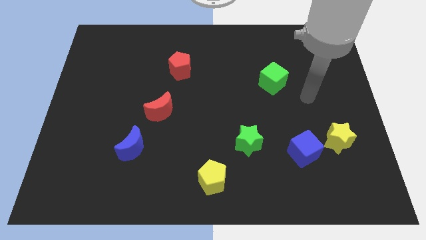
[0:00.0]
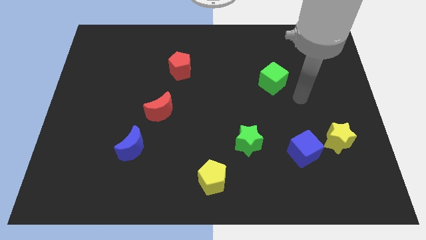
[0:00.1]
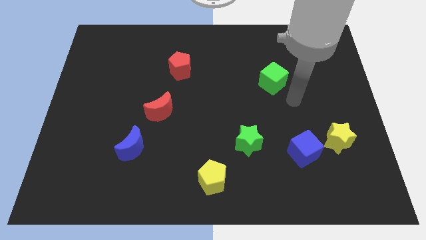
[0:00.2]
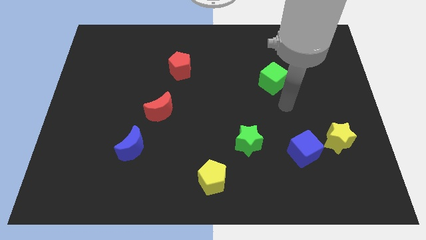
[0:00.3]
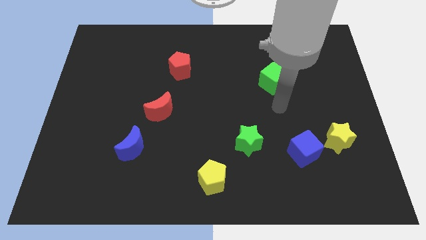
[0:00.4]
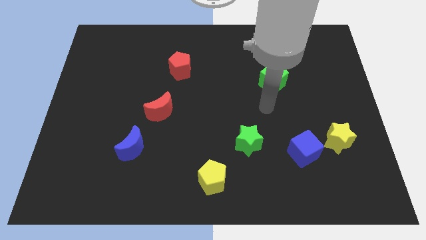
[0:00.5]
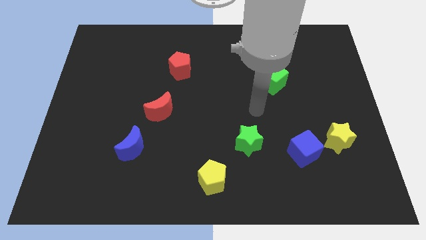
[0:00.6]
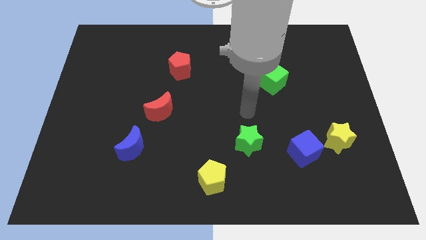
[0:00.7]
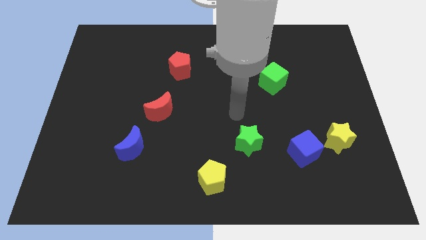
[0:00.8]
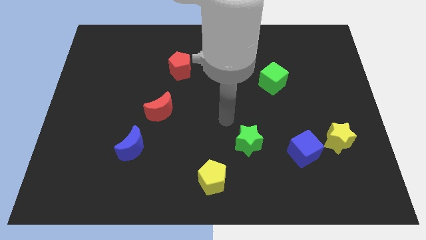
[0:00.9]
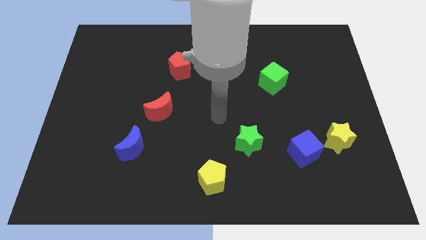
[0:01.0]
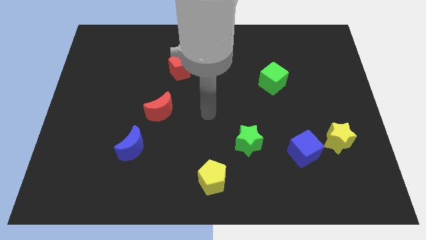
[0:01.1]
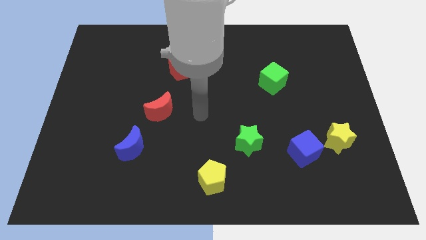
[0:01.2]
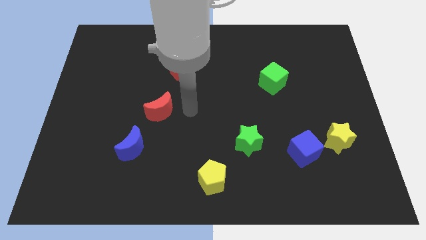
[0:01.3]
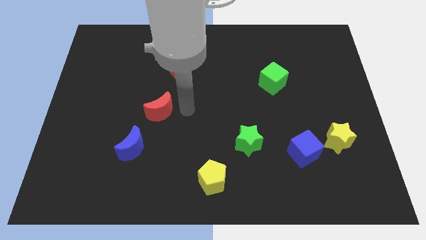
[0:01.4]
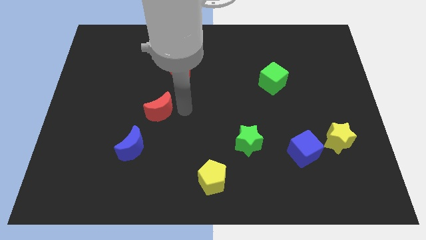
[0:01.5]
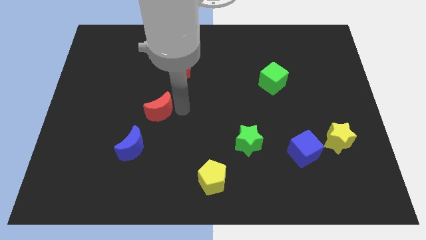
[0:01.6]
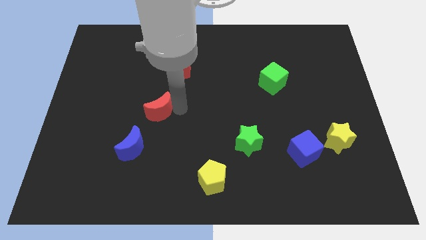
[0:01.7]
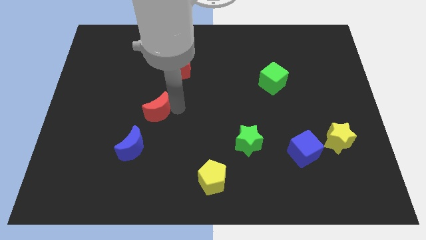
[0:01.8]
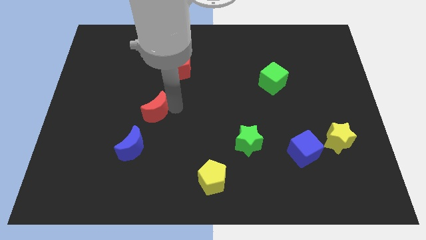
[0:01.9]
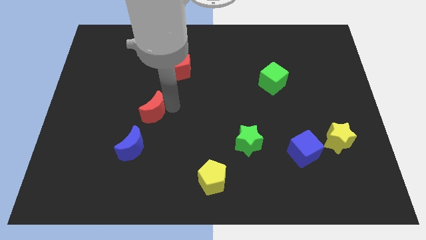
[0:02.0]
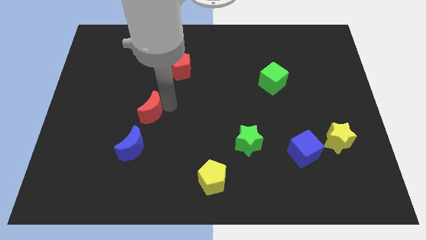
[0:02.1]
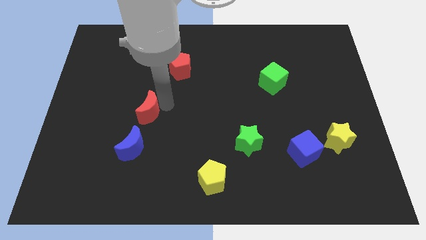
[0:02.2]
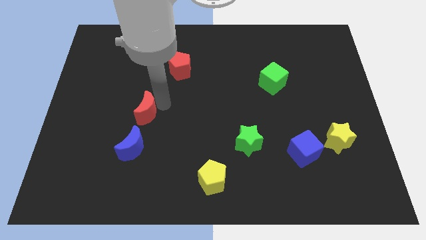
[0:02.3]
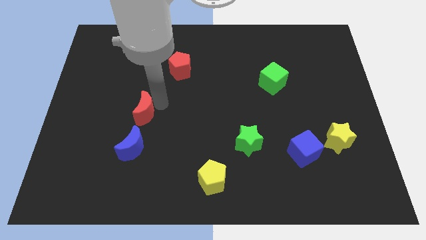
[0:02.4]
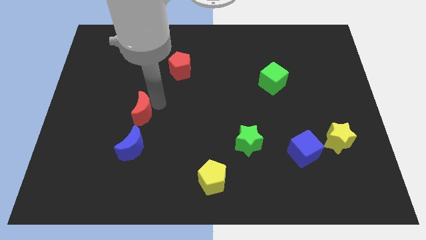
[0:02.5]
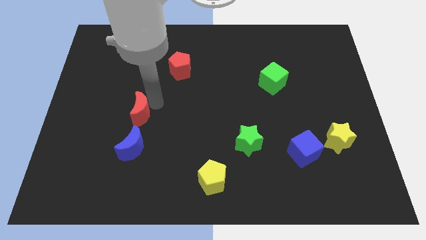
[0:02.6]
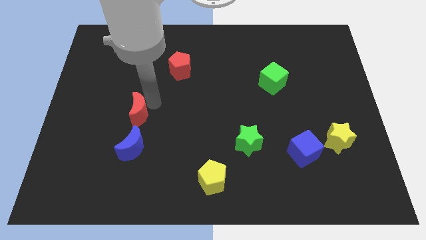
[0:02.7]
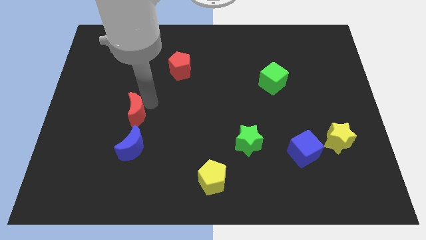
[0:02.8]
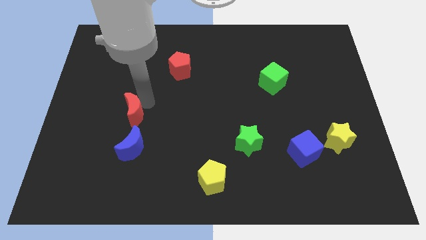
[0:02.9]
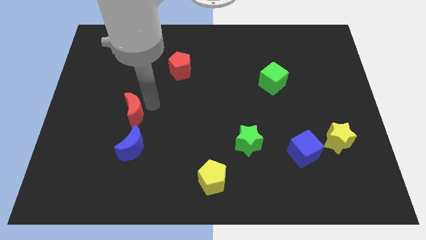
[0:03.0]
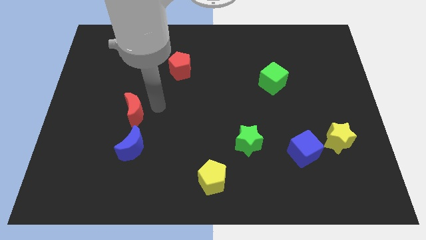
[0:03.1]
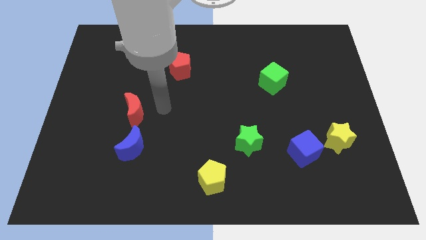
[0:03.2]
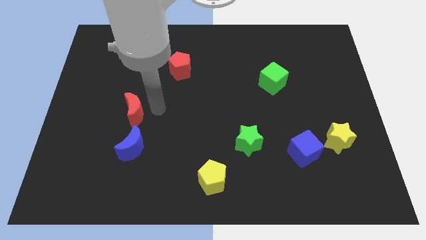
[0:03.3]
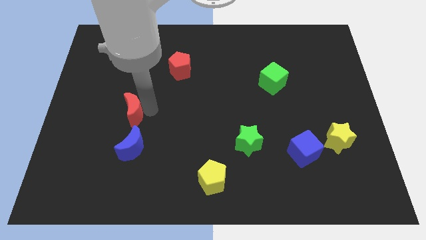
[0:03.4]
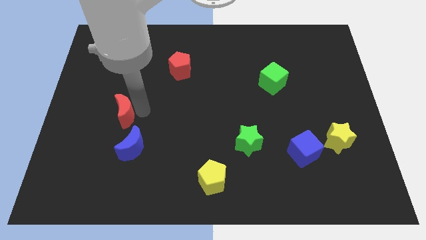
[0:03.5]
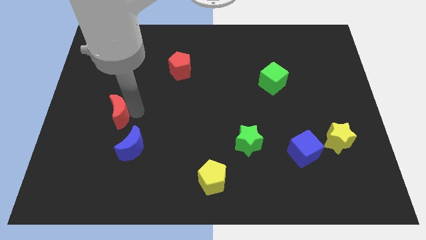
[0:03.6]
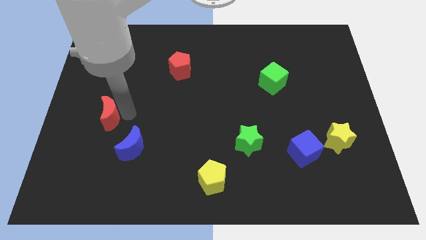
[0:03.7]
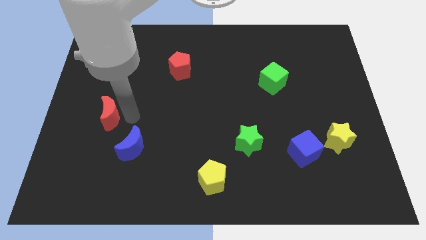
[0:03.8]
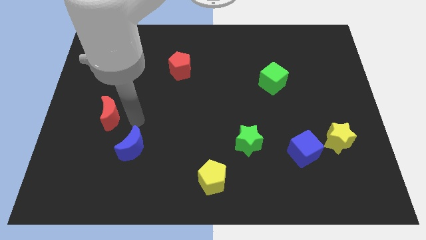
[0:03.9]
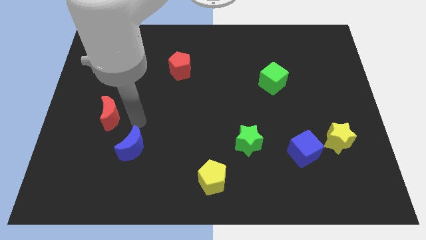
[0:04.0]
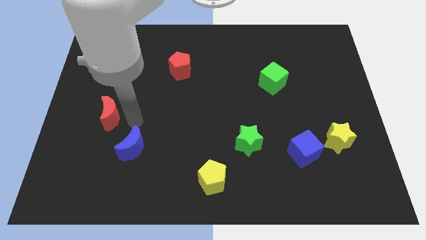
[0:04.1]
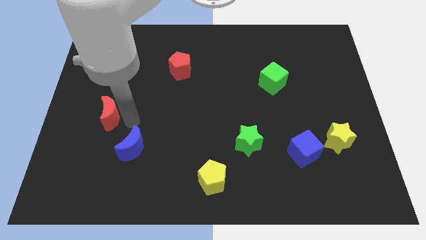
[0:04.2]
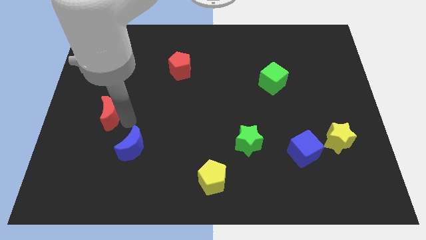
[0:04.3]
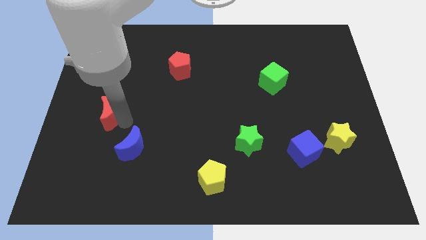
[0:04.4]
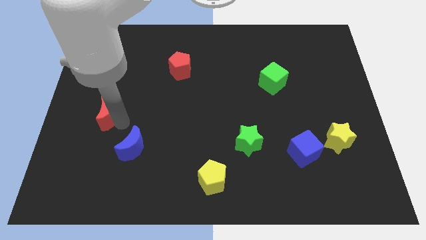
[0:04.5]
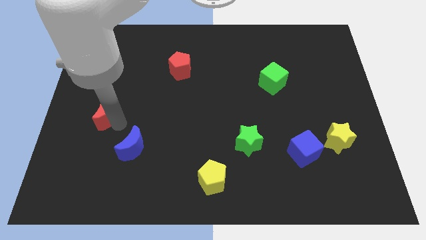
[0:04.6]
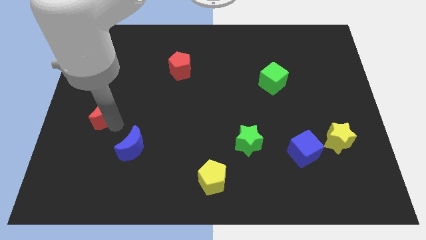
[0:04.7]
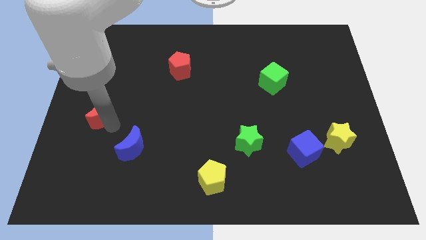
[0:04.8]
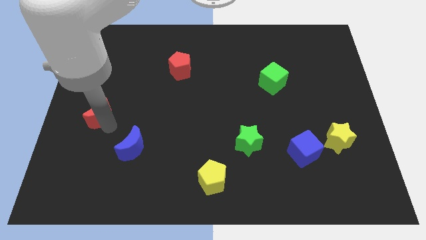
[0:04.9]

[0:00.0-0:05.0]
slide the red moon to the left side of the board

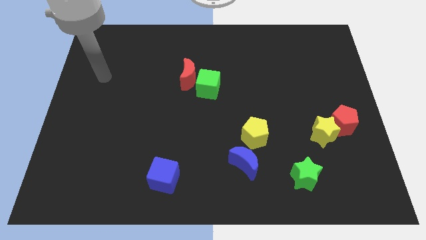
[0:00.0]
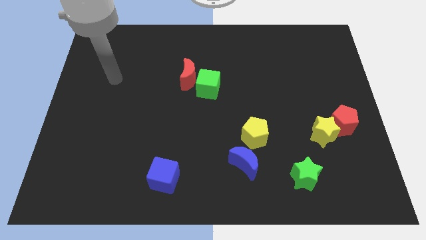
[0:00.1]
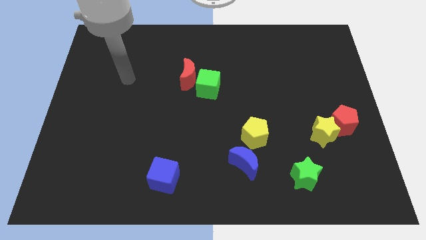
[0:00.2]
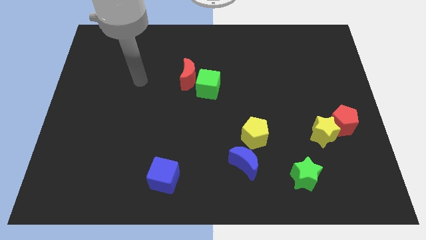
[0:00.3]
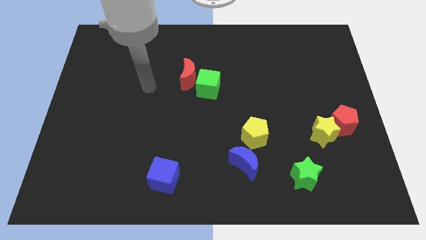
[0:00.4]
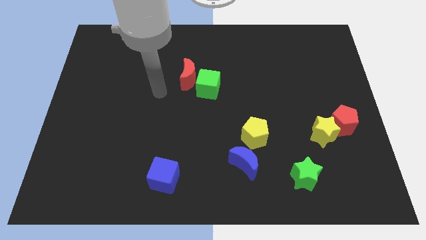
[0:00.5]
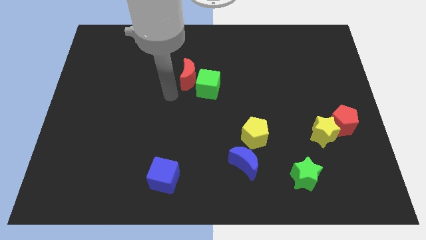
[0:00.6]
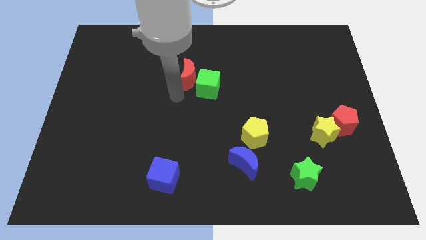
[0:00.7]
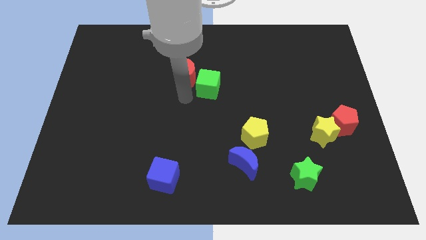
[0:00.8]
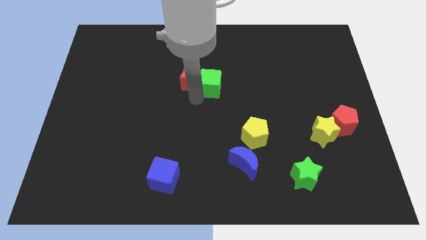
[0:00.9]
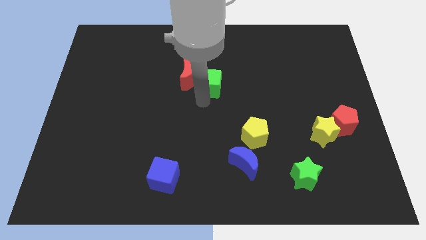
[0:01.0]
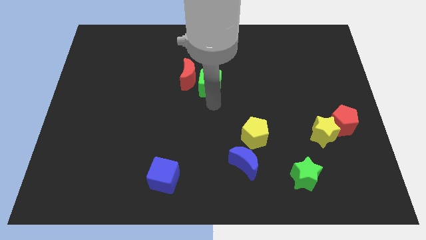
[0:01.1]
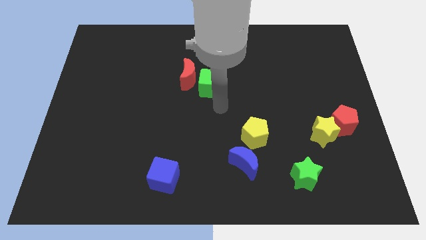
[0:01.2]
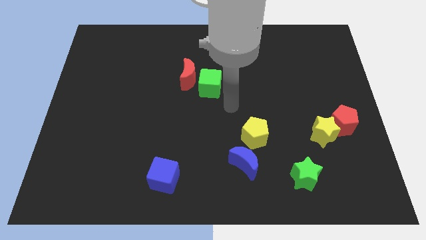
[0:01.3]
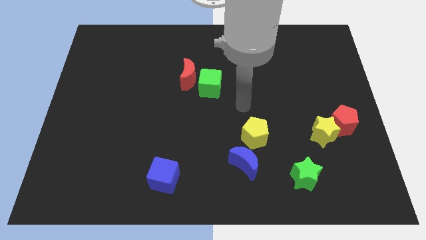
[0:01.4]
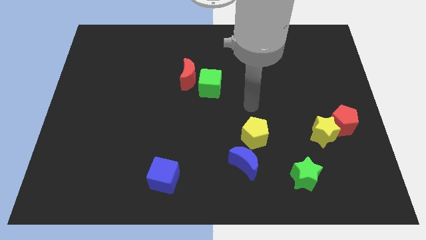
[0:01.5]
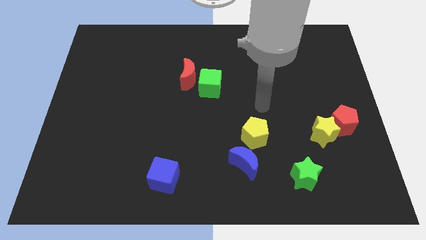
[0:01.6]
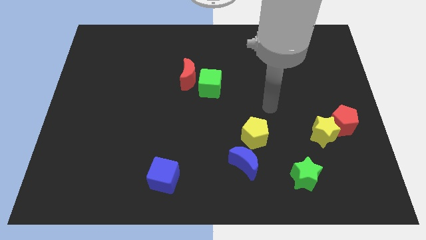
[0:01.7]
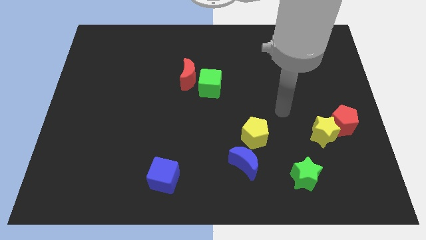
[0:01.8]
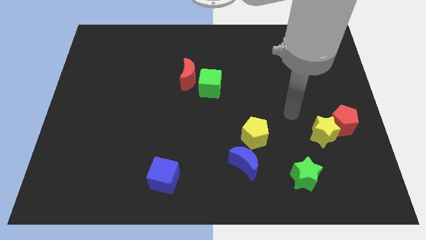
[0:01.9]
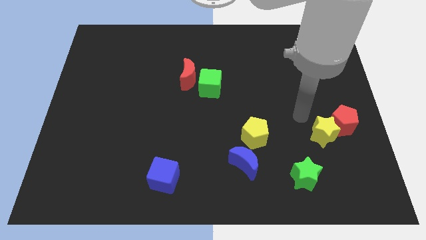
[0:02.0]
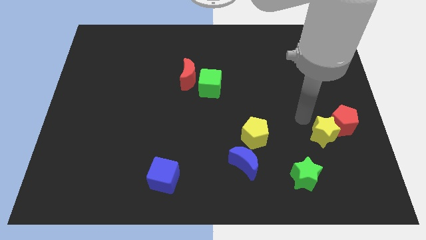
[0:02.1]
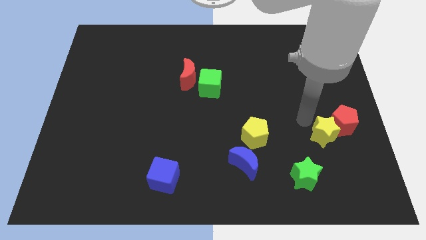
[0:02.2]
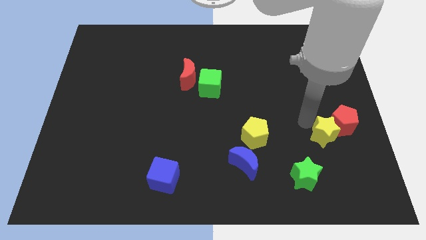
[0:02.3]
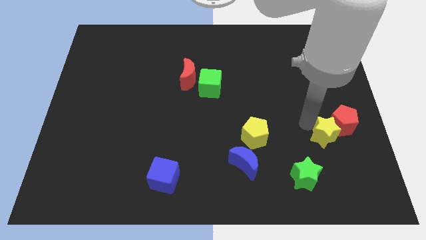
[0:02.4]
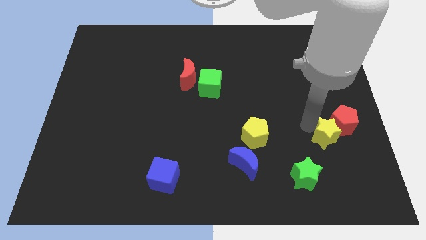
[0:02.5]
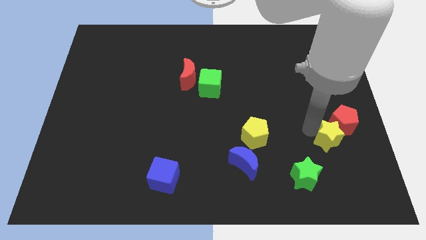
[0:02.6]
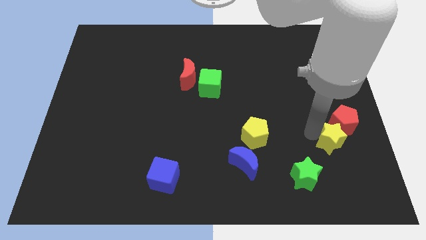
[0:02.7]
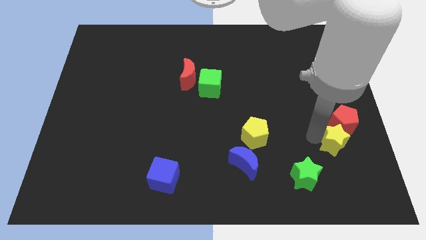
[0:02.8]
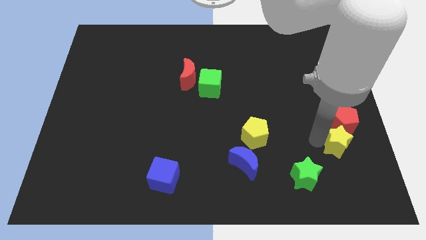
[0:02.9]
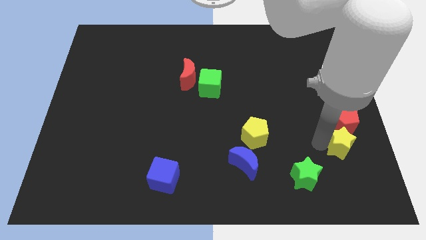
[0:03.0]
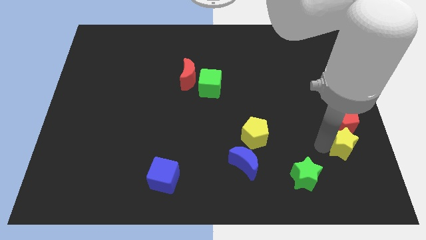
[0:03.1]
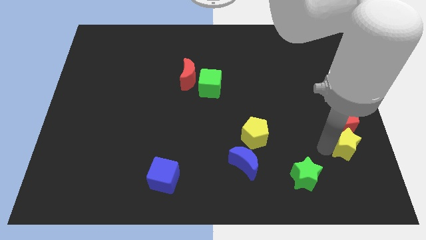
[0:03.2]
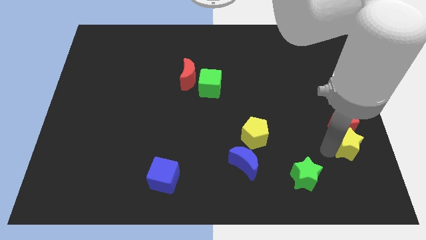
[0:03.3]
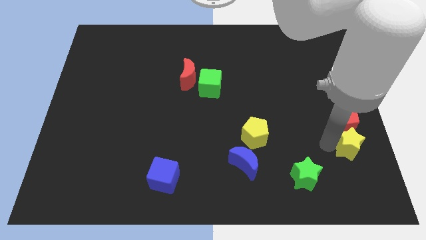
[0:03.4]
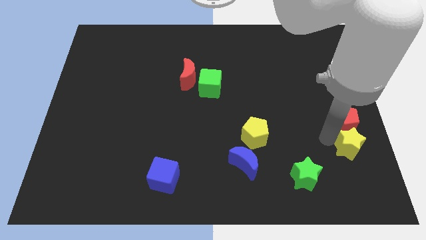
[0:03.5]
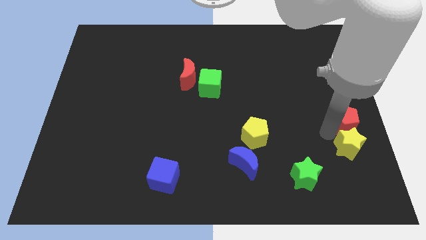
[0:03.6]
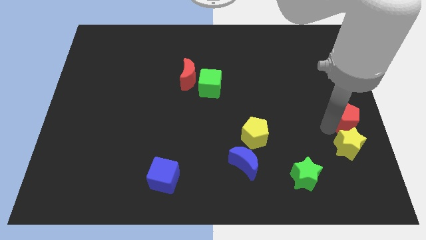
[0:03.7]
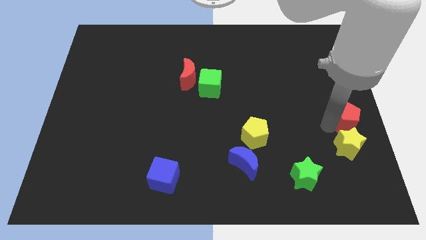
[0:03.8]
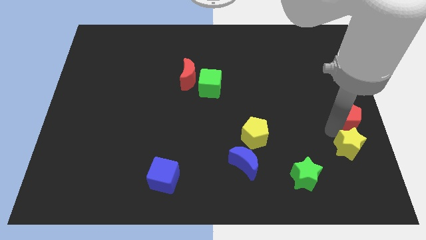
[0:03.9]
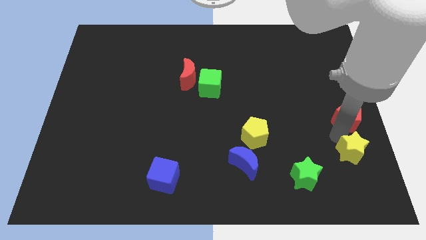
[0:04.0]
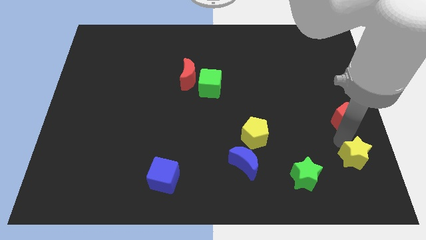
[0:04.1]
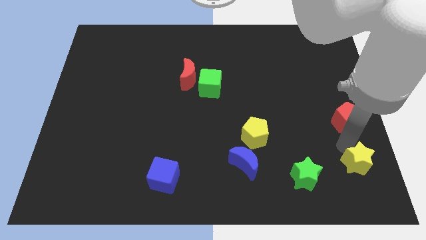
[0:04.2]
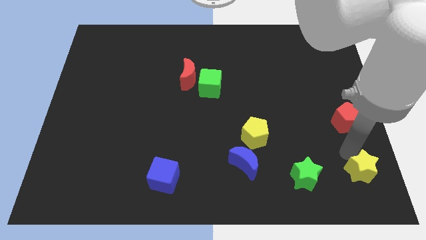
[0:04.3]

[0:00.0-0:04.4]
push the yellow star to the bottom right
